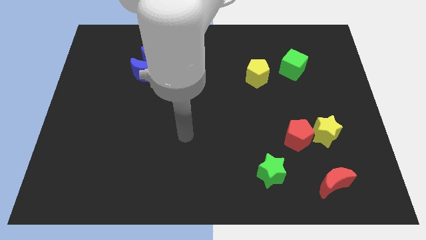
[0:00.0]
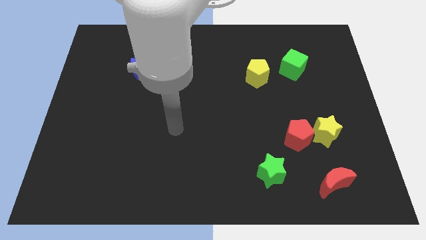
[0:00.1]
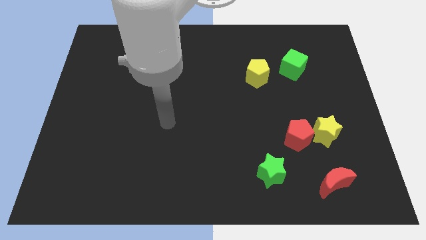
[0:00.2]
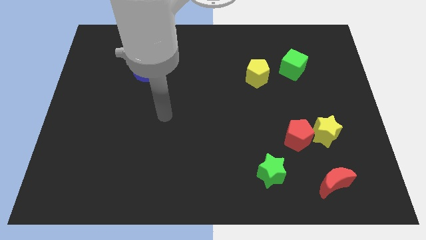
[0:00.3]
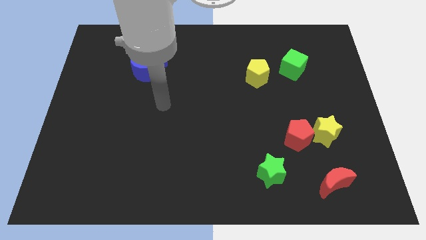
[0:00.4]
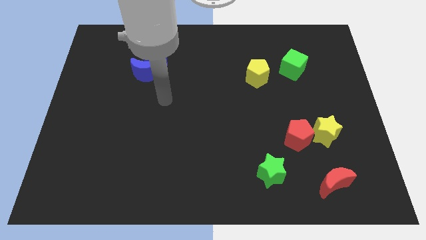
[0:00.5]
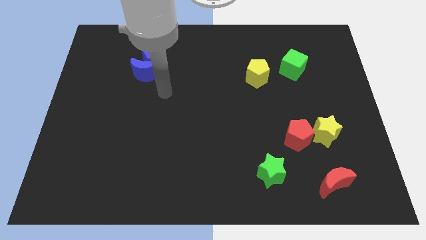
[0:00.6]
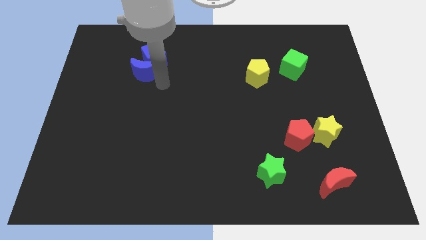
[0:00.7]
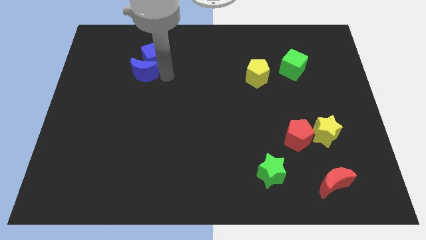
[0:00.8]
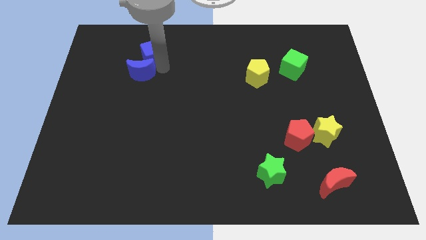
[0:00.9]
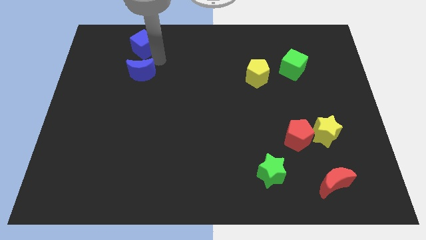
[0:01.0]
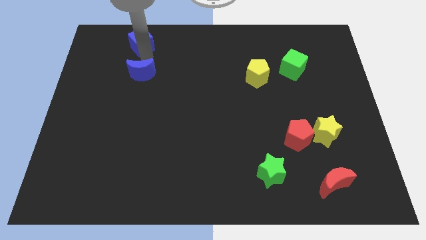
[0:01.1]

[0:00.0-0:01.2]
move the blue moon away from the blue cube

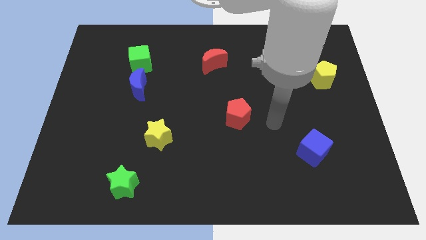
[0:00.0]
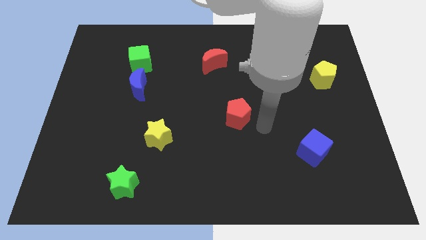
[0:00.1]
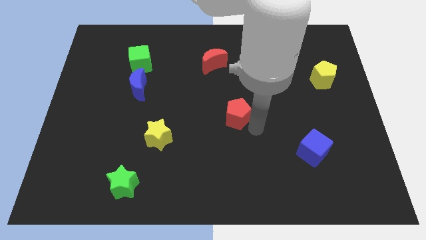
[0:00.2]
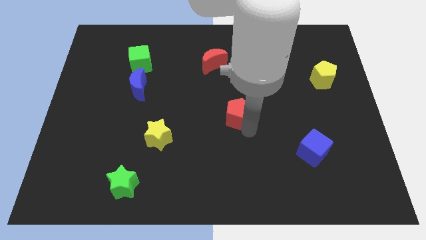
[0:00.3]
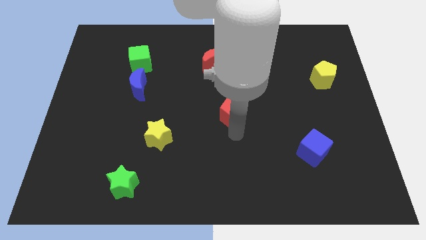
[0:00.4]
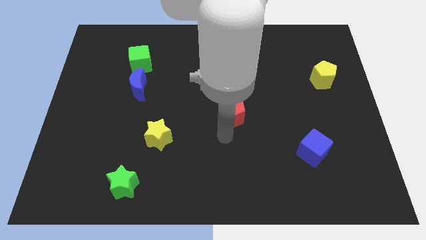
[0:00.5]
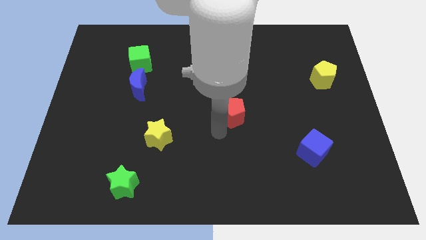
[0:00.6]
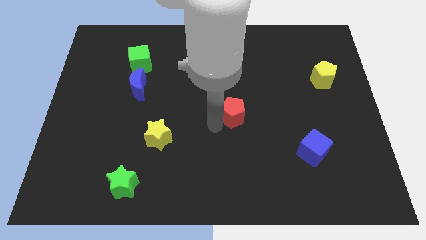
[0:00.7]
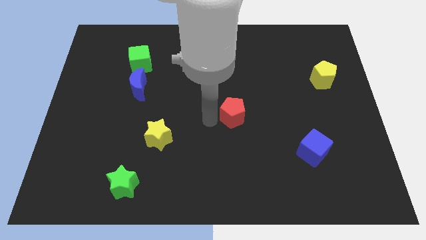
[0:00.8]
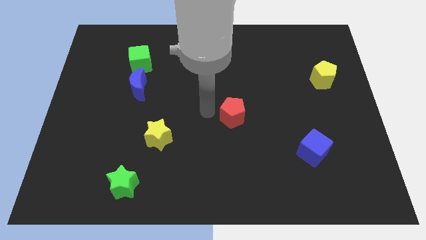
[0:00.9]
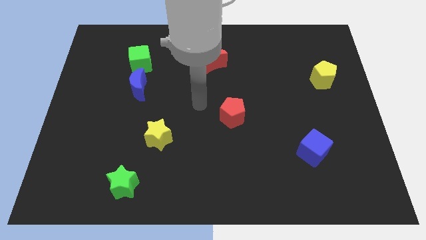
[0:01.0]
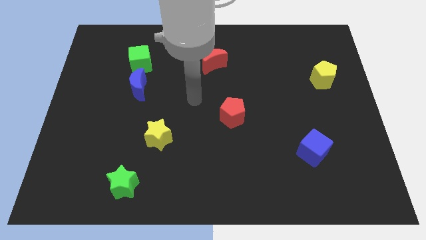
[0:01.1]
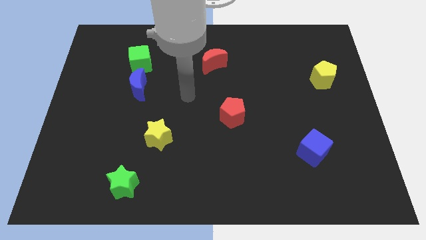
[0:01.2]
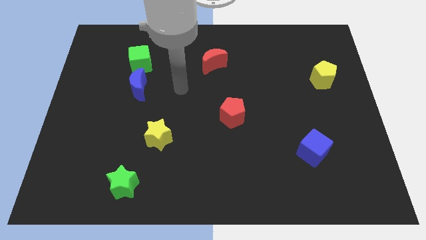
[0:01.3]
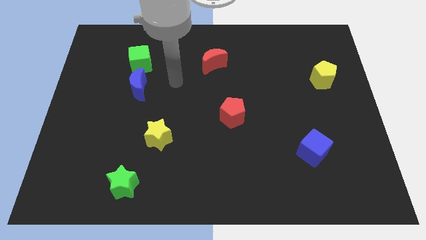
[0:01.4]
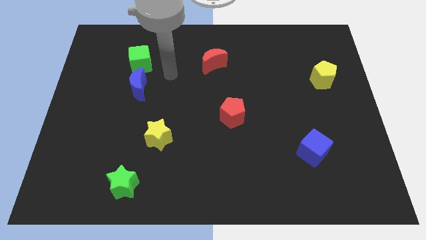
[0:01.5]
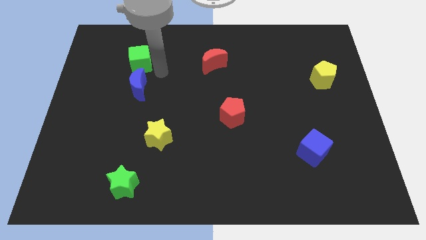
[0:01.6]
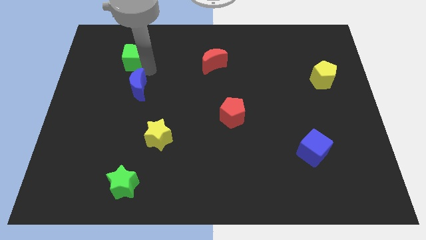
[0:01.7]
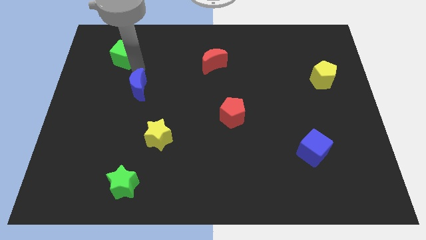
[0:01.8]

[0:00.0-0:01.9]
move the blue moon away from the green cube

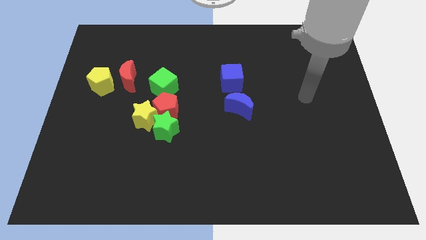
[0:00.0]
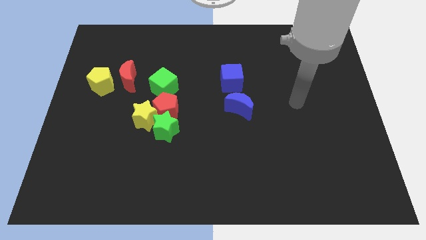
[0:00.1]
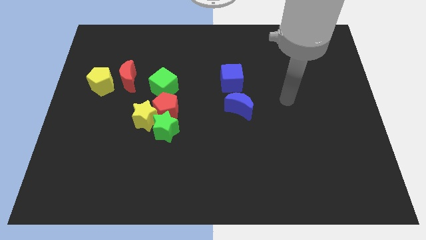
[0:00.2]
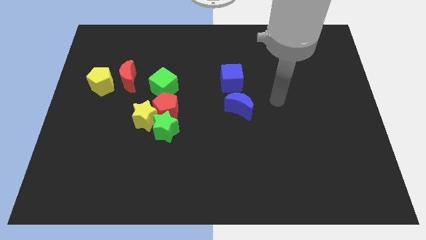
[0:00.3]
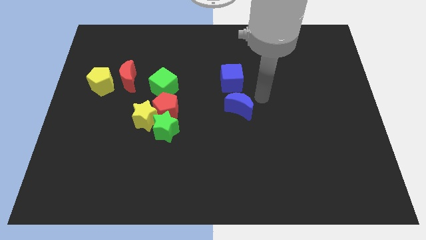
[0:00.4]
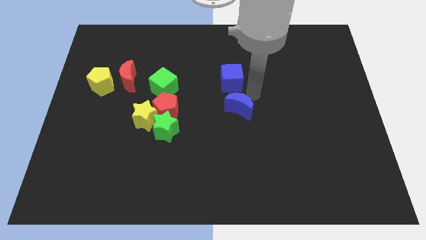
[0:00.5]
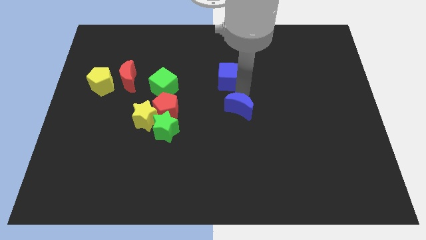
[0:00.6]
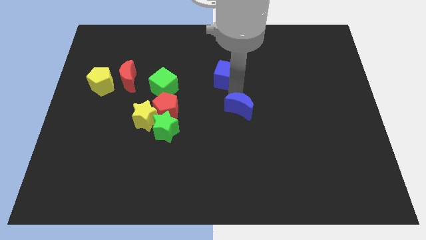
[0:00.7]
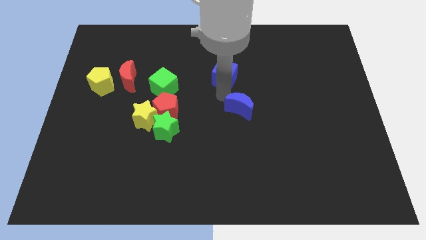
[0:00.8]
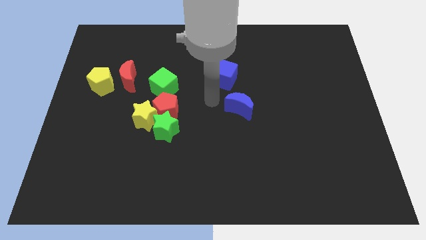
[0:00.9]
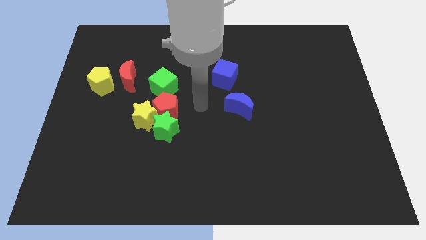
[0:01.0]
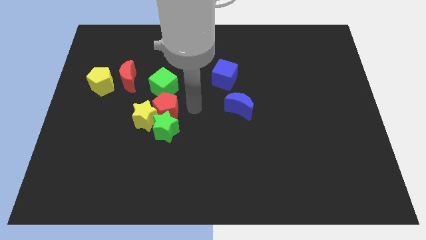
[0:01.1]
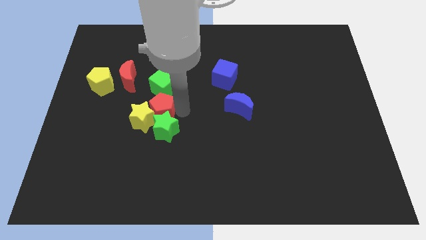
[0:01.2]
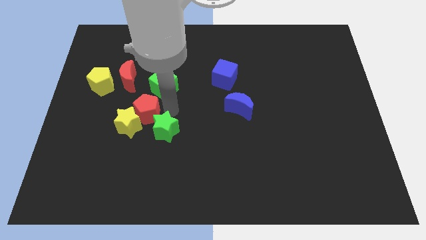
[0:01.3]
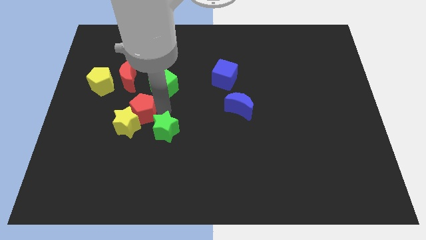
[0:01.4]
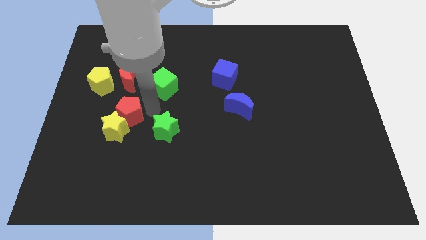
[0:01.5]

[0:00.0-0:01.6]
move the green star away from the red pentagon and yellow star

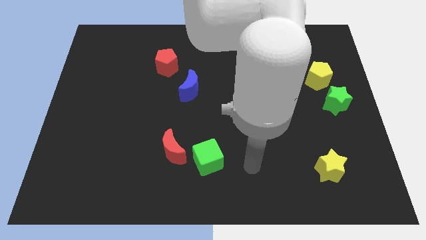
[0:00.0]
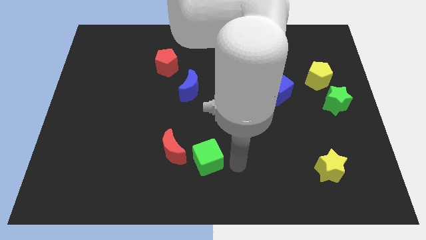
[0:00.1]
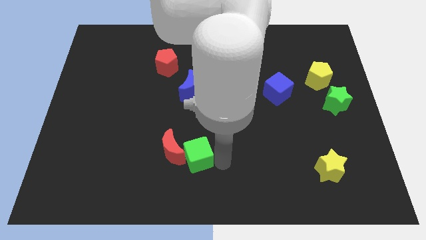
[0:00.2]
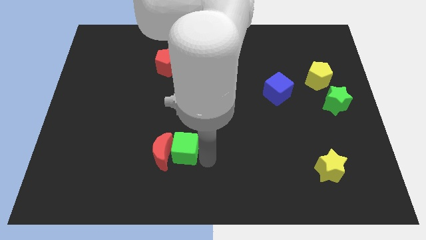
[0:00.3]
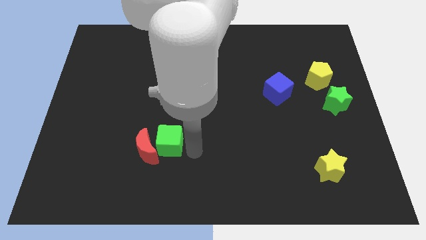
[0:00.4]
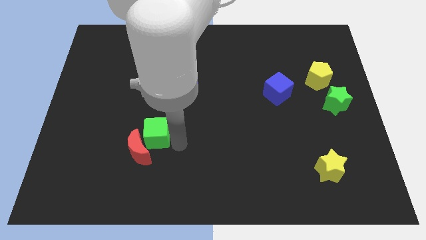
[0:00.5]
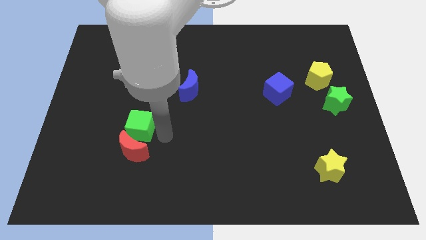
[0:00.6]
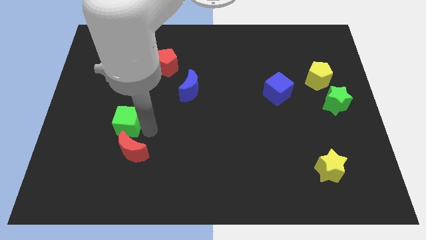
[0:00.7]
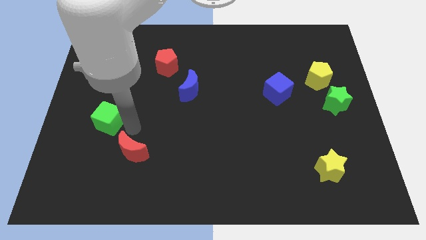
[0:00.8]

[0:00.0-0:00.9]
separate the red moon from the green cube

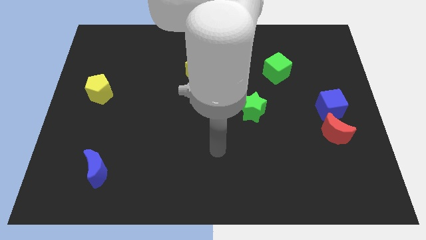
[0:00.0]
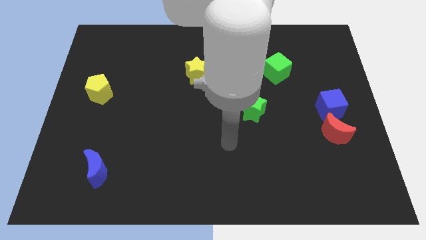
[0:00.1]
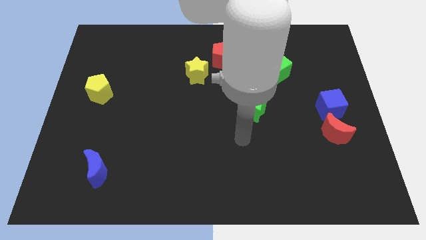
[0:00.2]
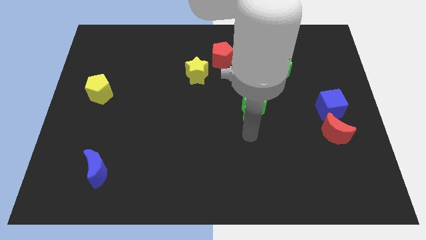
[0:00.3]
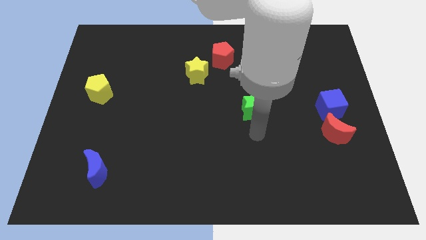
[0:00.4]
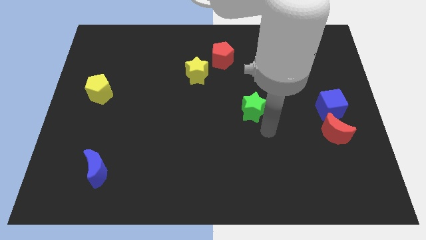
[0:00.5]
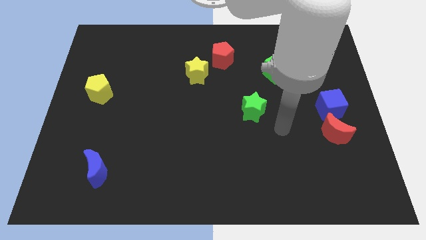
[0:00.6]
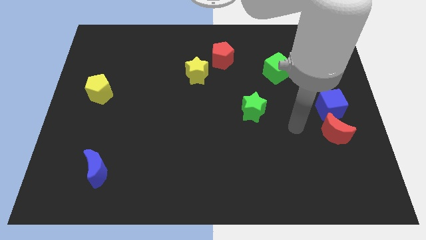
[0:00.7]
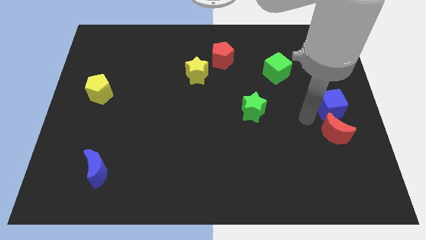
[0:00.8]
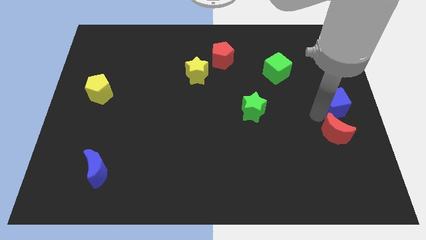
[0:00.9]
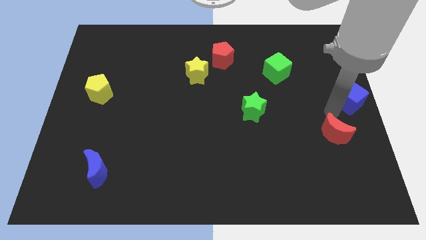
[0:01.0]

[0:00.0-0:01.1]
move the red moon away from the blue cube

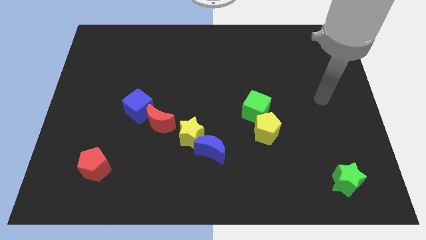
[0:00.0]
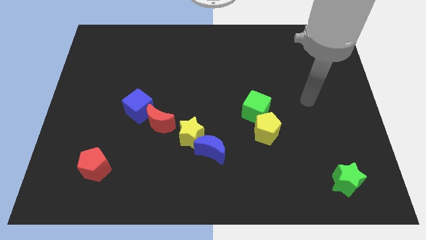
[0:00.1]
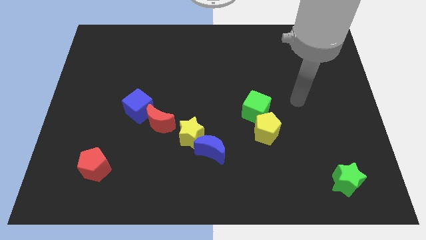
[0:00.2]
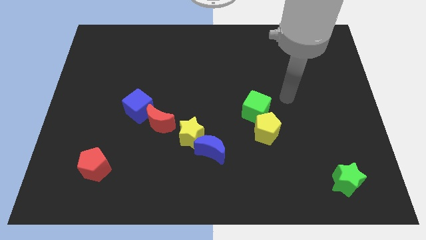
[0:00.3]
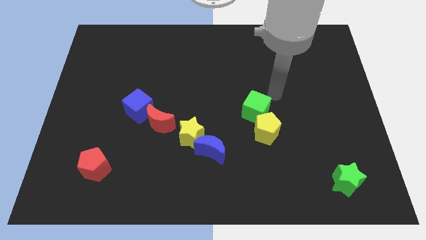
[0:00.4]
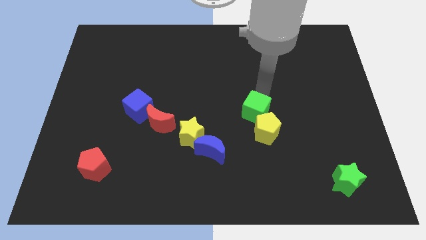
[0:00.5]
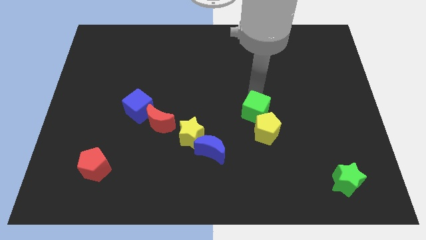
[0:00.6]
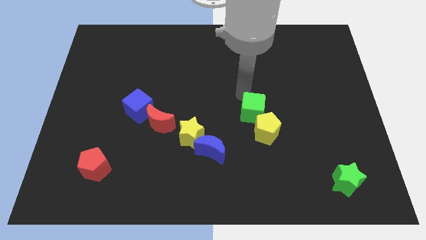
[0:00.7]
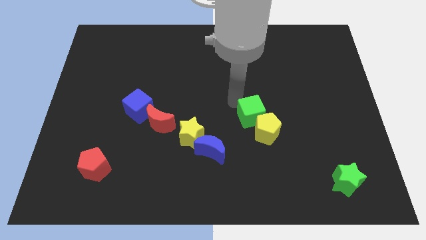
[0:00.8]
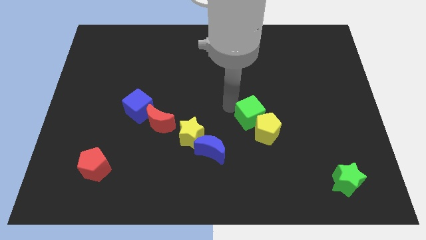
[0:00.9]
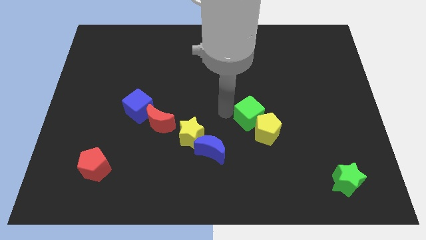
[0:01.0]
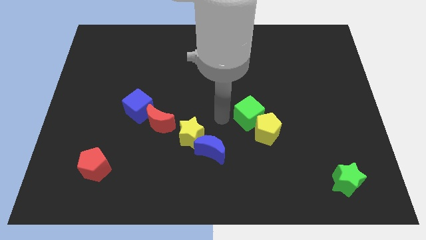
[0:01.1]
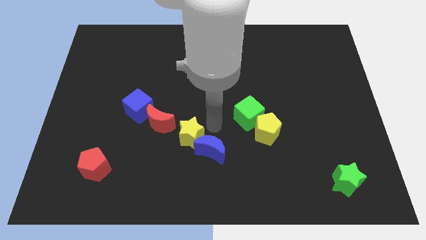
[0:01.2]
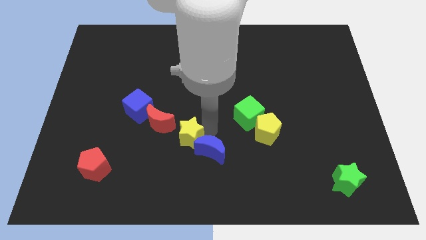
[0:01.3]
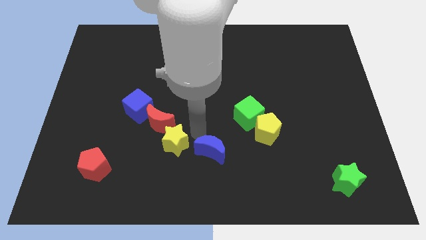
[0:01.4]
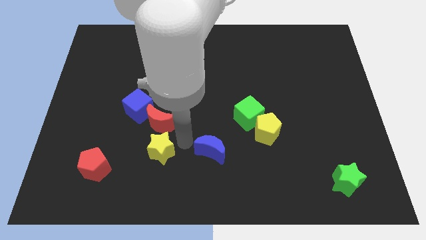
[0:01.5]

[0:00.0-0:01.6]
move the blue moon away from the yellow star

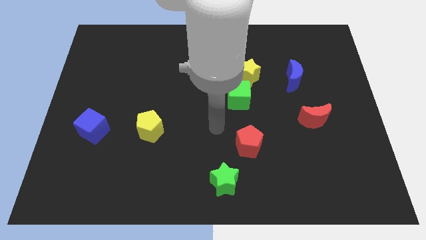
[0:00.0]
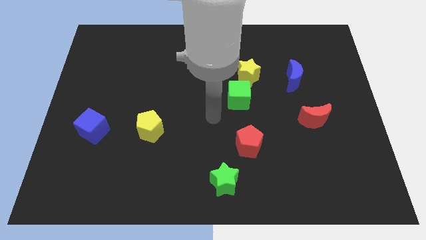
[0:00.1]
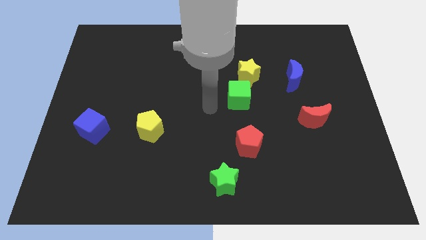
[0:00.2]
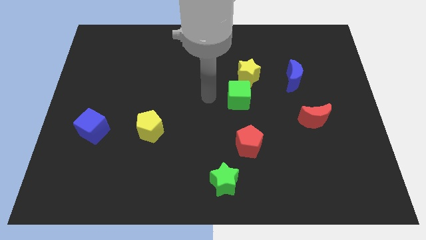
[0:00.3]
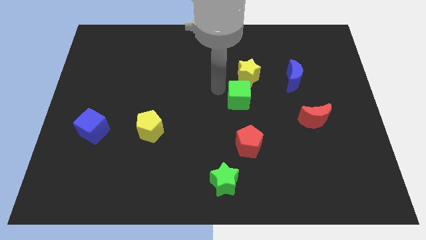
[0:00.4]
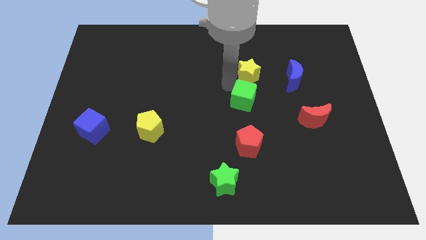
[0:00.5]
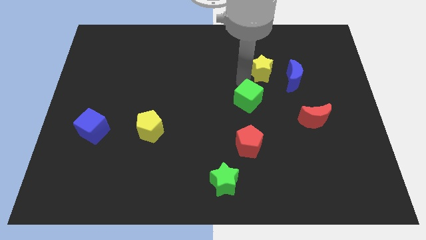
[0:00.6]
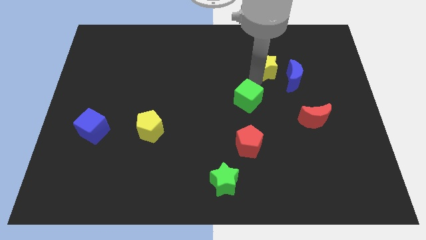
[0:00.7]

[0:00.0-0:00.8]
separate the green cube from the yellow star

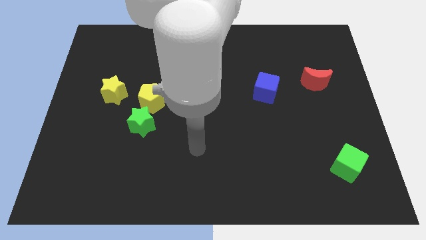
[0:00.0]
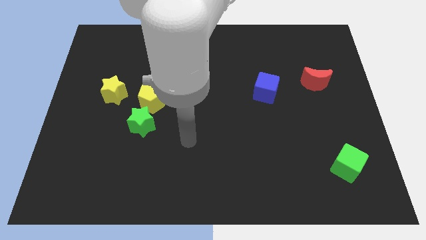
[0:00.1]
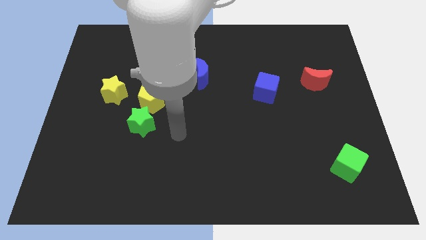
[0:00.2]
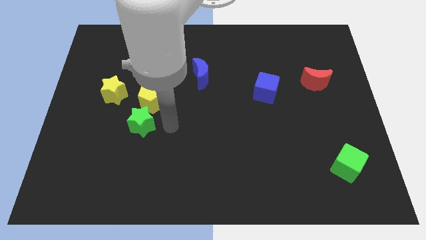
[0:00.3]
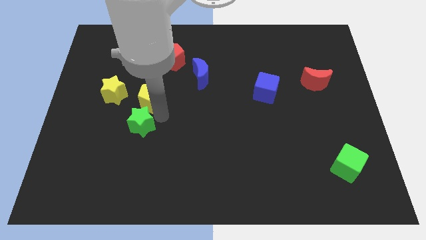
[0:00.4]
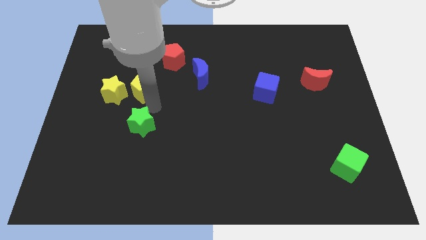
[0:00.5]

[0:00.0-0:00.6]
move the green star away from the yellow pentagon
